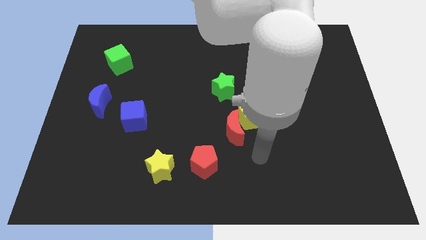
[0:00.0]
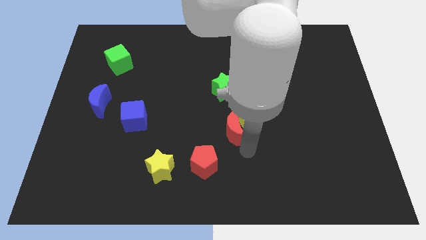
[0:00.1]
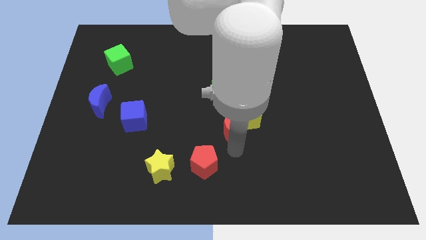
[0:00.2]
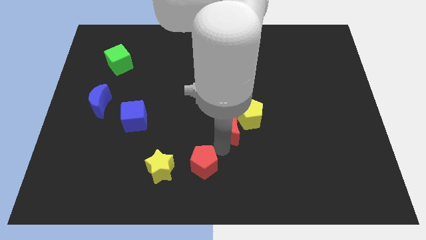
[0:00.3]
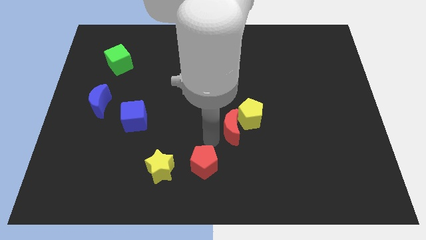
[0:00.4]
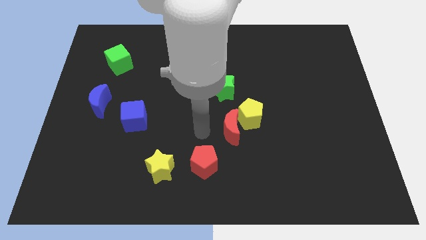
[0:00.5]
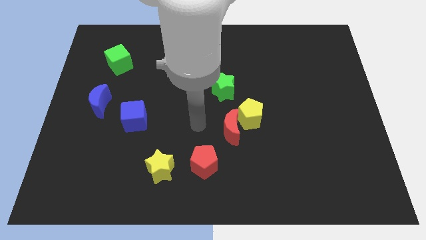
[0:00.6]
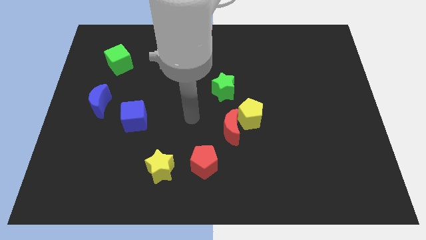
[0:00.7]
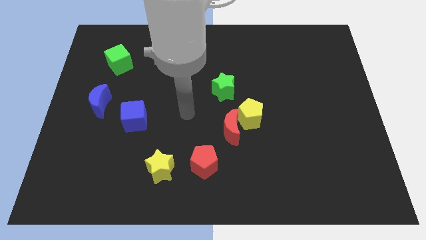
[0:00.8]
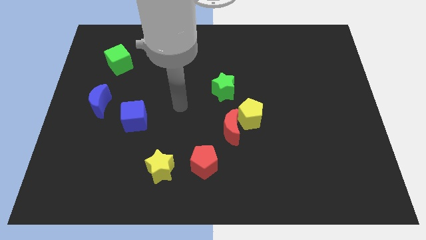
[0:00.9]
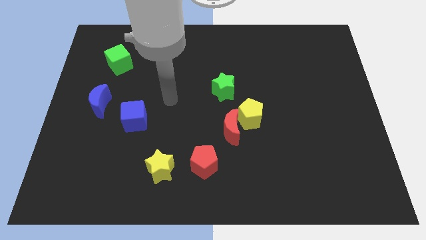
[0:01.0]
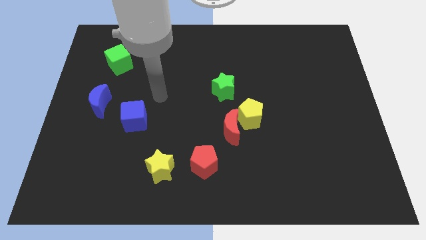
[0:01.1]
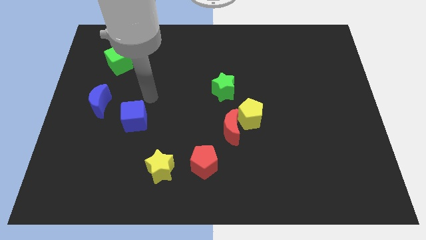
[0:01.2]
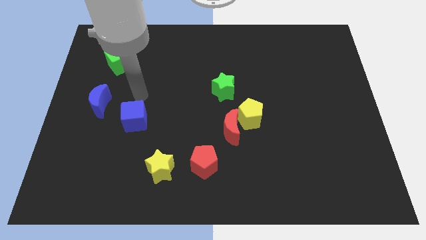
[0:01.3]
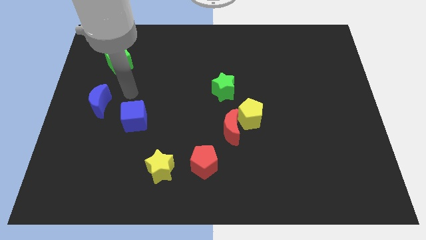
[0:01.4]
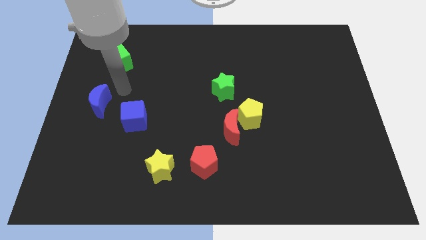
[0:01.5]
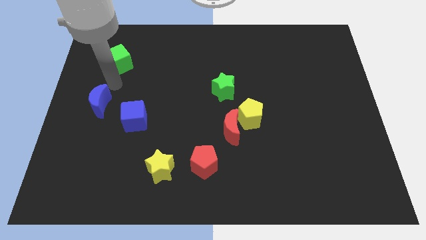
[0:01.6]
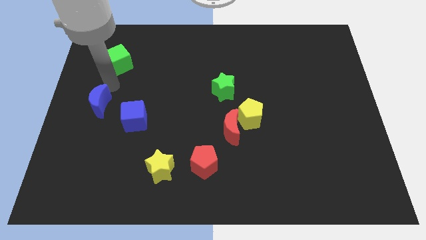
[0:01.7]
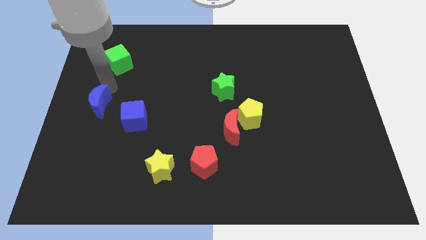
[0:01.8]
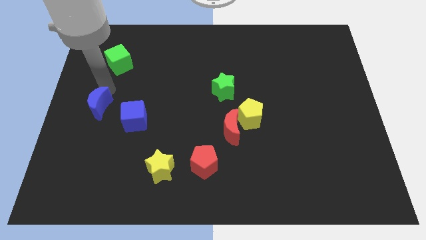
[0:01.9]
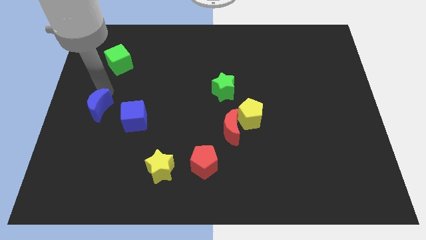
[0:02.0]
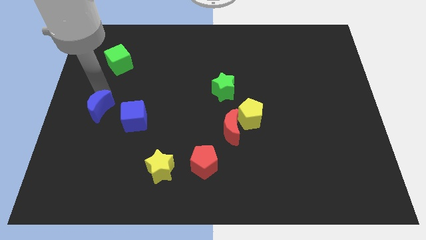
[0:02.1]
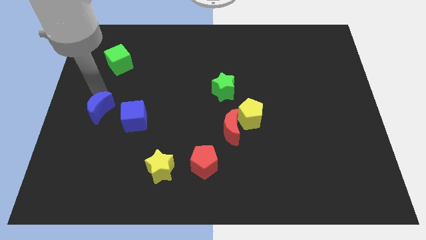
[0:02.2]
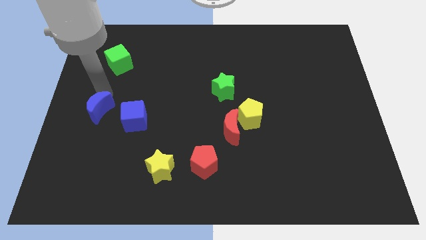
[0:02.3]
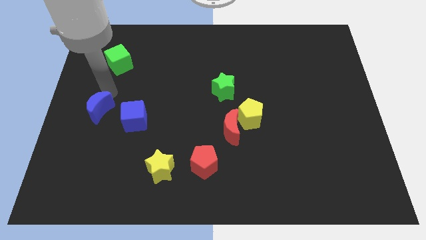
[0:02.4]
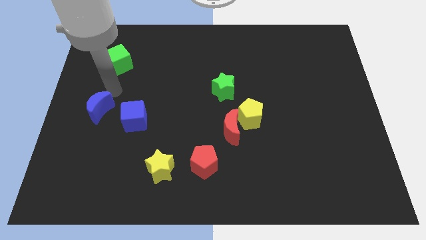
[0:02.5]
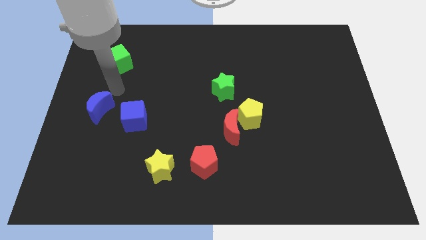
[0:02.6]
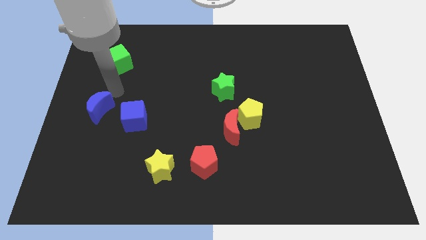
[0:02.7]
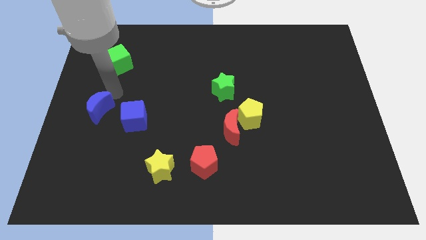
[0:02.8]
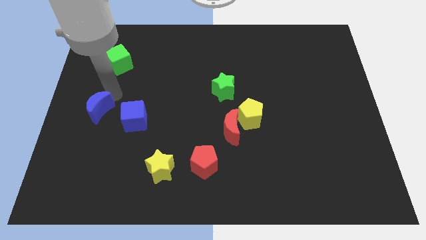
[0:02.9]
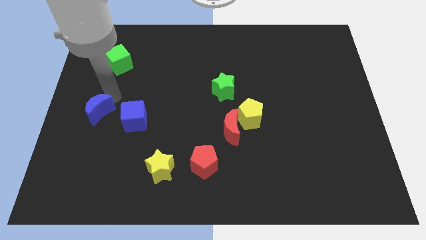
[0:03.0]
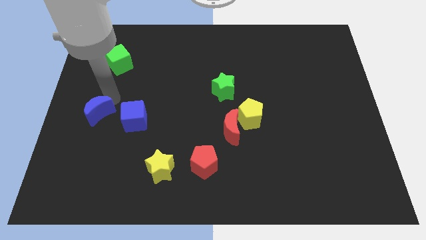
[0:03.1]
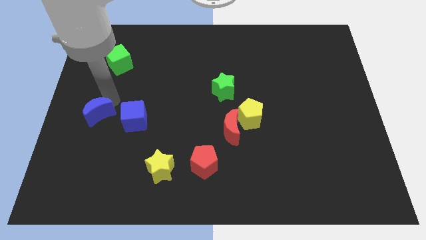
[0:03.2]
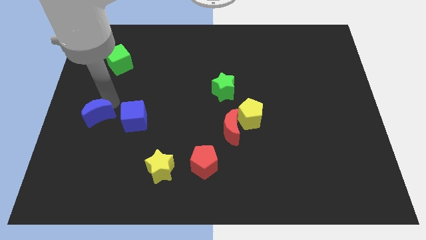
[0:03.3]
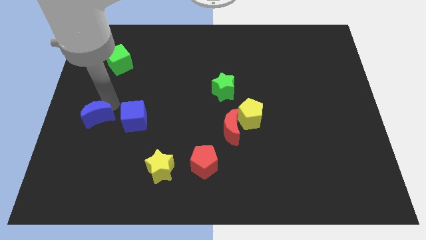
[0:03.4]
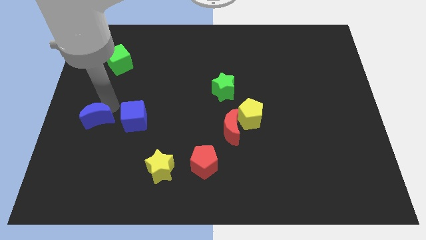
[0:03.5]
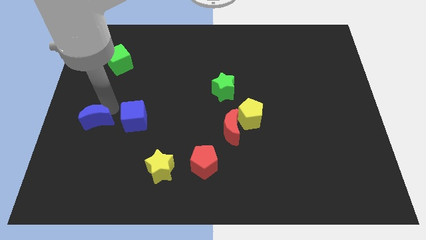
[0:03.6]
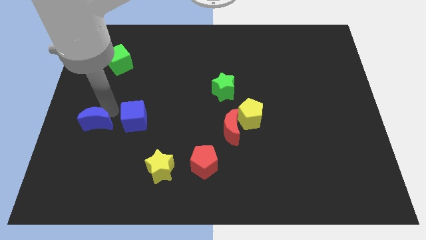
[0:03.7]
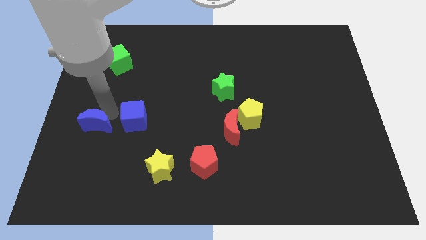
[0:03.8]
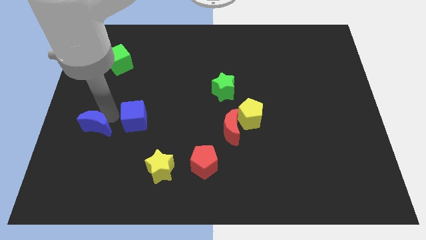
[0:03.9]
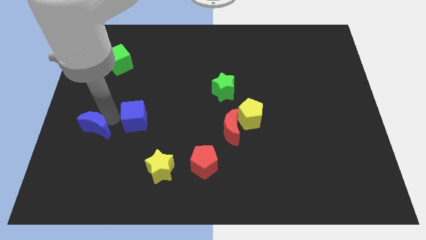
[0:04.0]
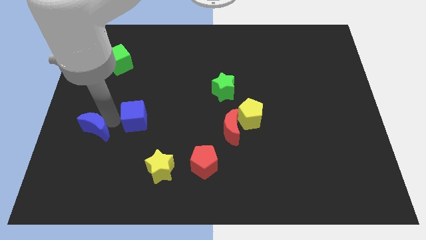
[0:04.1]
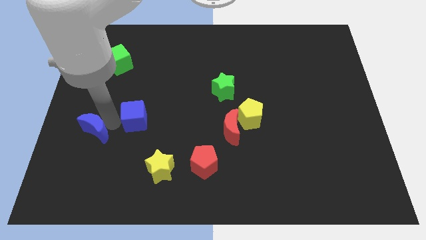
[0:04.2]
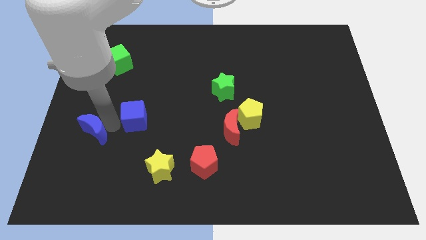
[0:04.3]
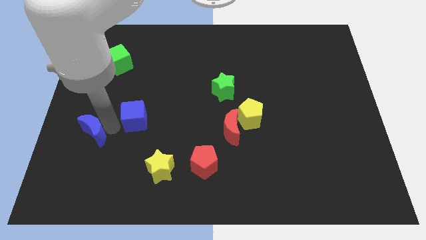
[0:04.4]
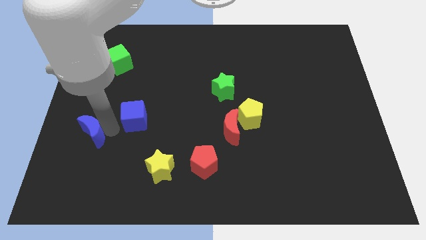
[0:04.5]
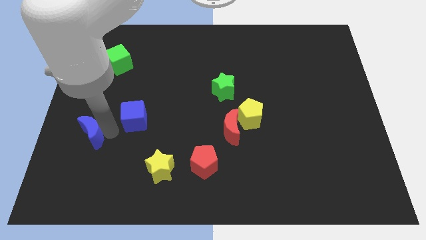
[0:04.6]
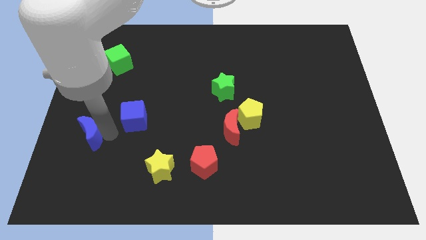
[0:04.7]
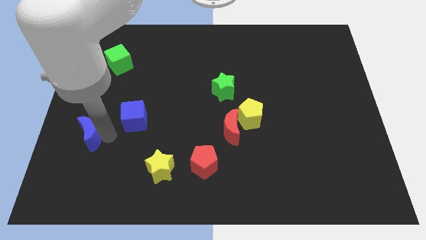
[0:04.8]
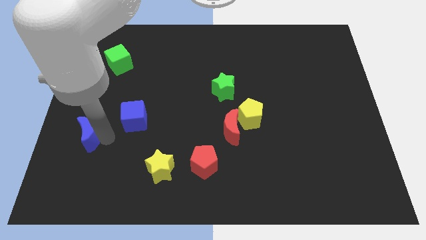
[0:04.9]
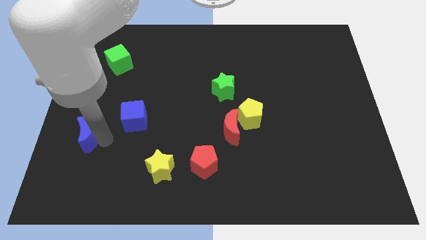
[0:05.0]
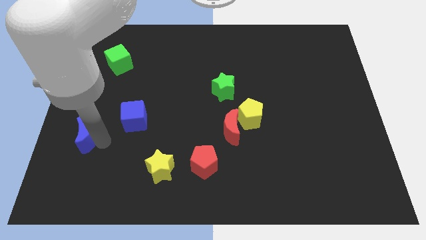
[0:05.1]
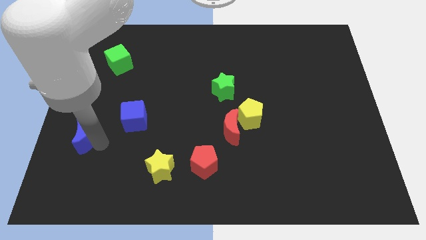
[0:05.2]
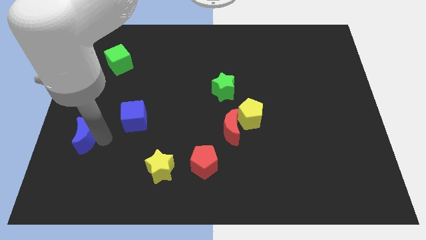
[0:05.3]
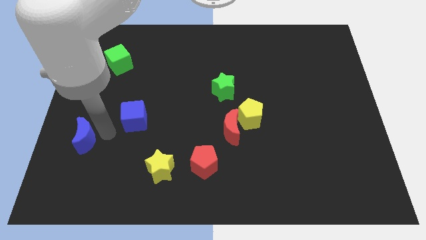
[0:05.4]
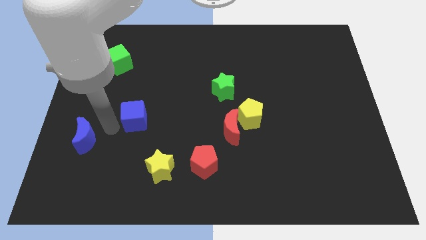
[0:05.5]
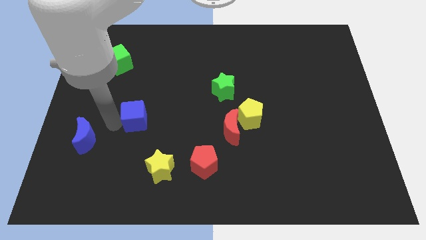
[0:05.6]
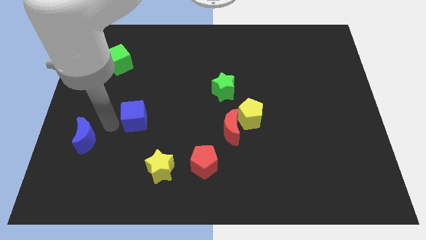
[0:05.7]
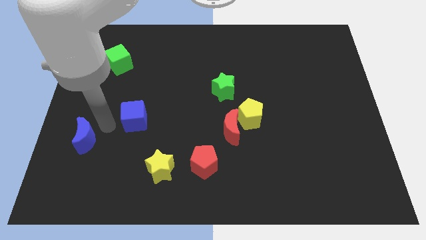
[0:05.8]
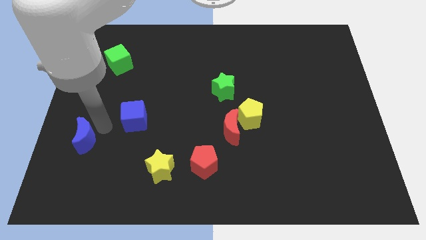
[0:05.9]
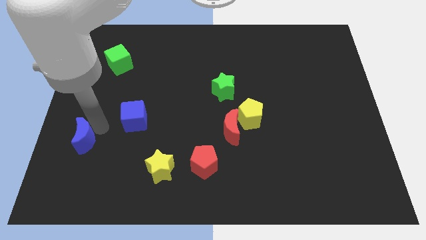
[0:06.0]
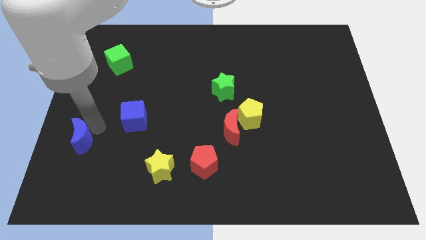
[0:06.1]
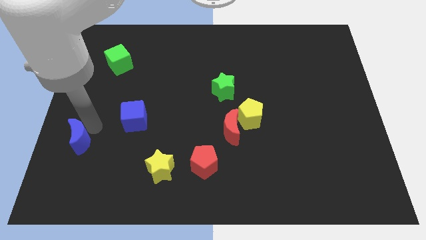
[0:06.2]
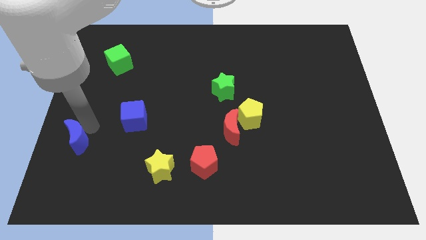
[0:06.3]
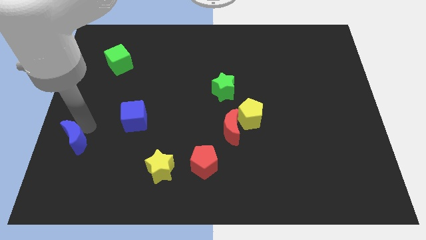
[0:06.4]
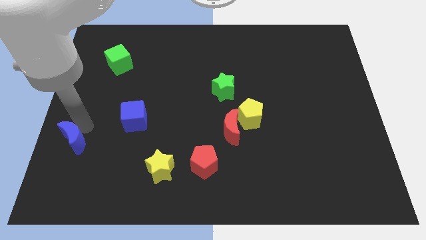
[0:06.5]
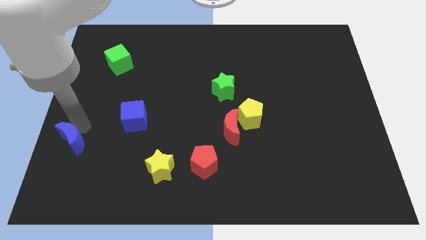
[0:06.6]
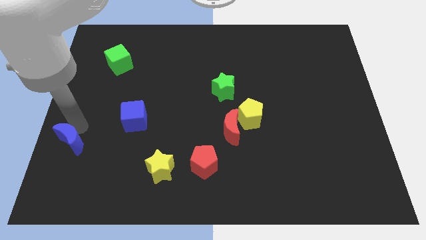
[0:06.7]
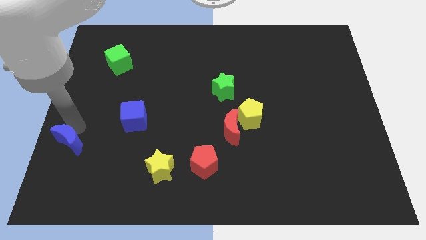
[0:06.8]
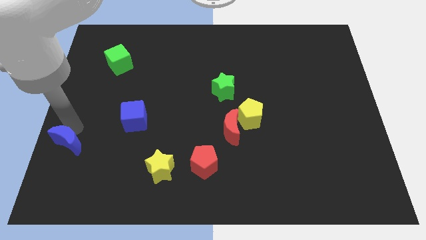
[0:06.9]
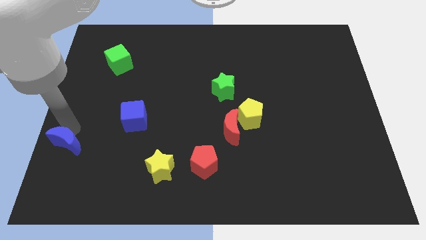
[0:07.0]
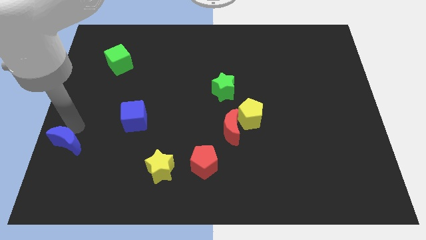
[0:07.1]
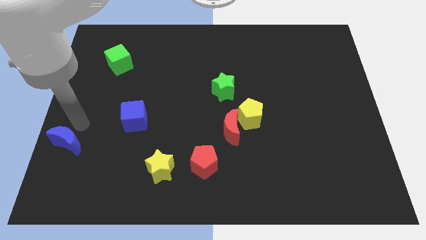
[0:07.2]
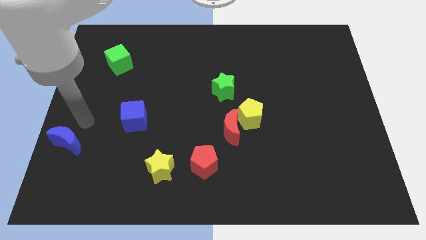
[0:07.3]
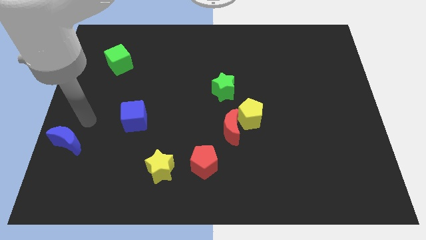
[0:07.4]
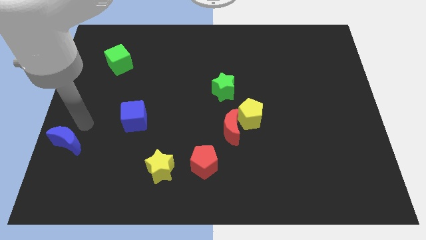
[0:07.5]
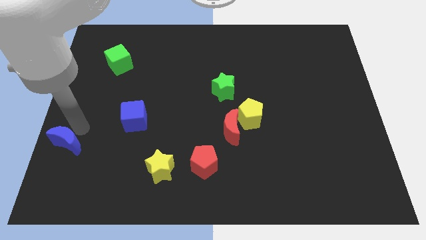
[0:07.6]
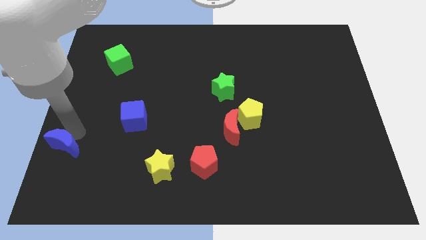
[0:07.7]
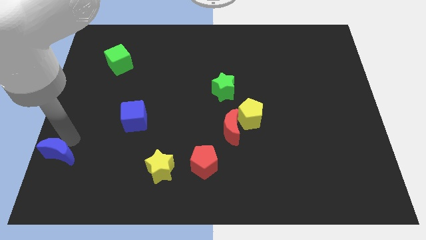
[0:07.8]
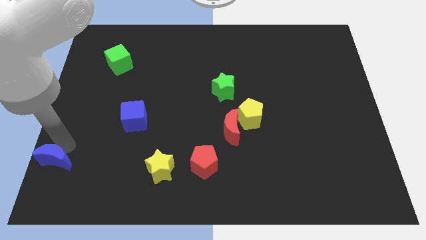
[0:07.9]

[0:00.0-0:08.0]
push the blue moon to the bottom left
